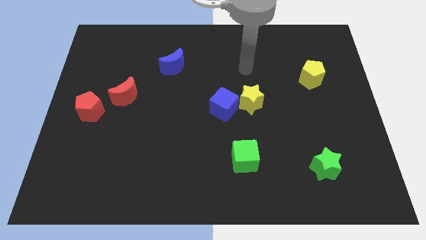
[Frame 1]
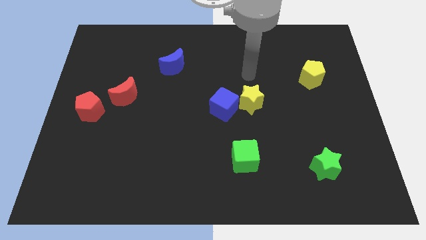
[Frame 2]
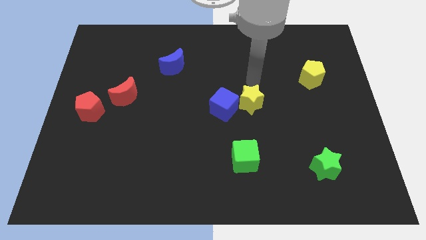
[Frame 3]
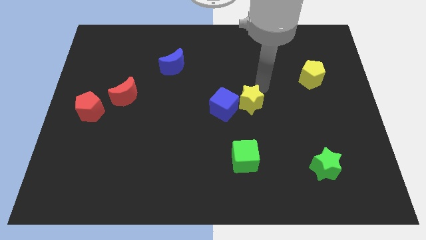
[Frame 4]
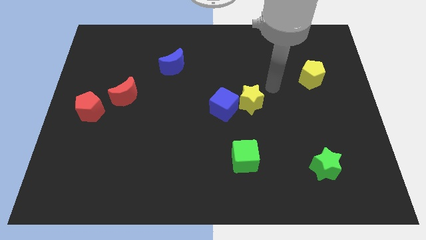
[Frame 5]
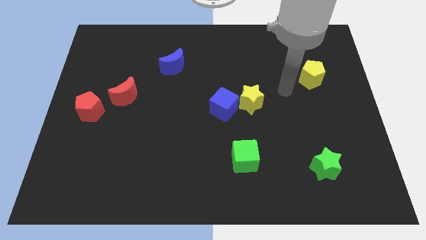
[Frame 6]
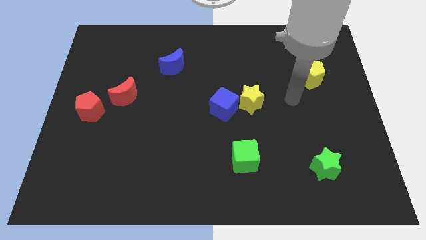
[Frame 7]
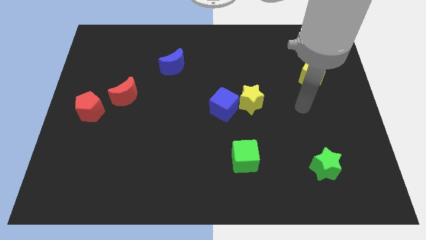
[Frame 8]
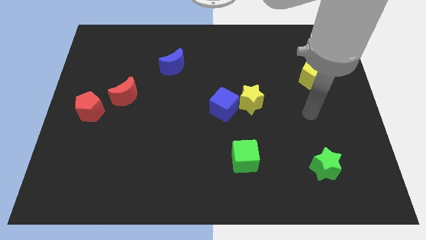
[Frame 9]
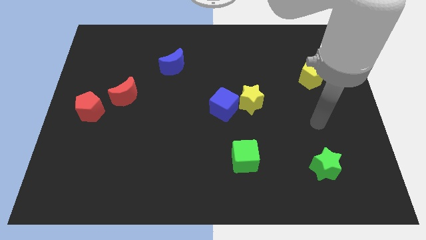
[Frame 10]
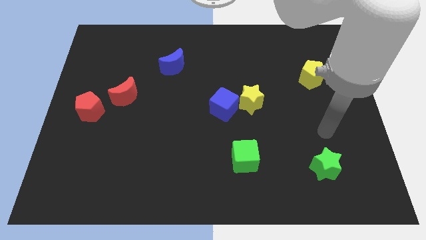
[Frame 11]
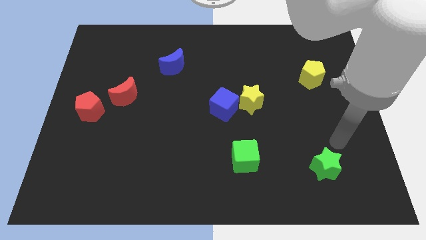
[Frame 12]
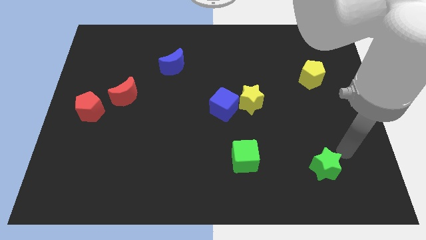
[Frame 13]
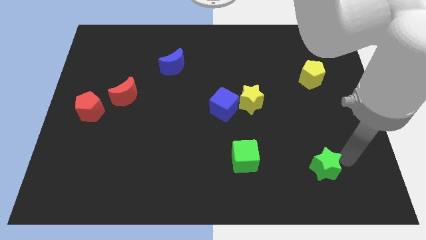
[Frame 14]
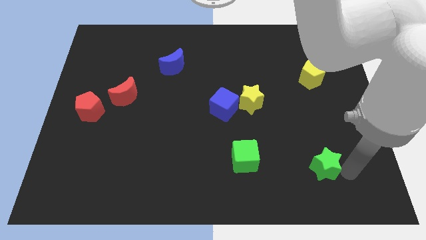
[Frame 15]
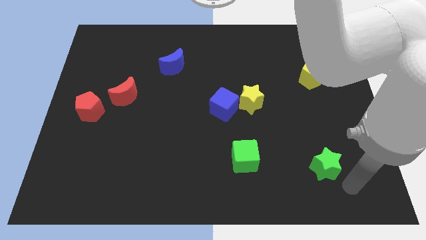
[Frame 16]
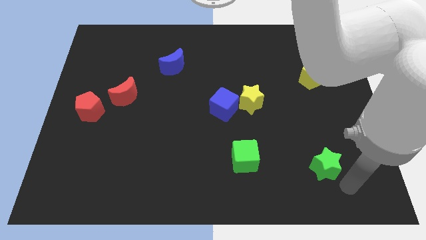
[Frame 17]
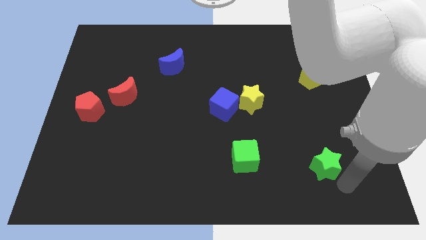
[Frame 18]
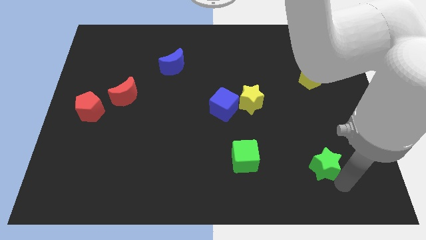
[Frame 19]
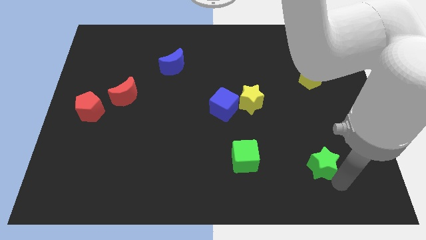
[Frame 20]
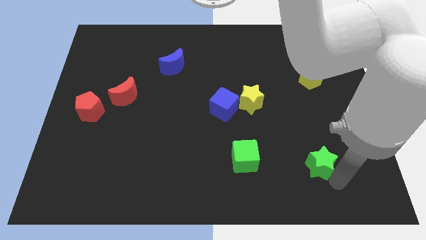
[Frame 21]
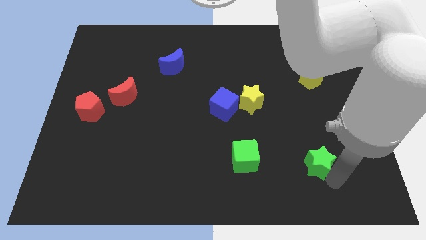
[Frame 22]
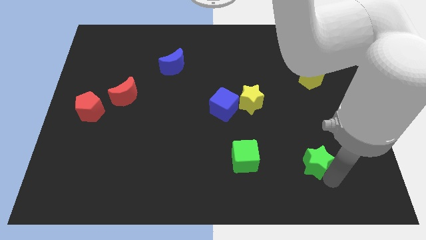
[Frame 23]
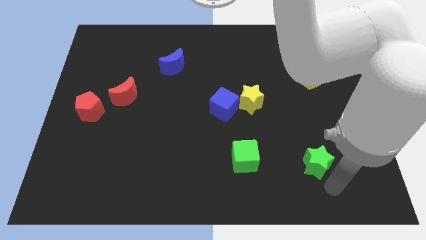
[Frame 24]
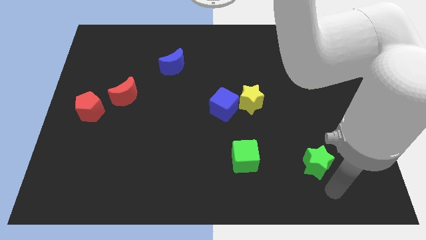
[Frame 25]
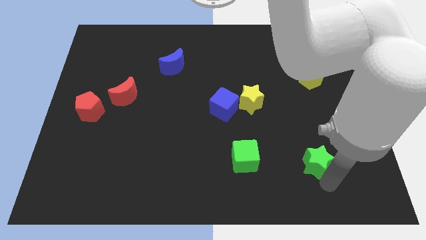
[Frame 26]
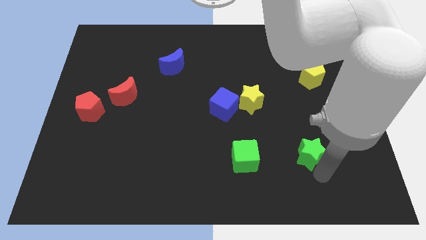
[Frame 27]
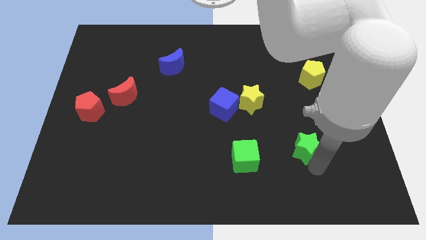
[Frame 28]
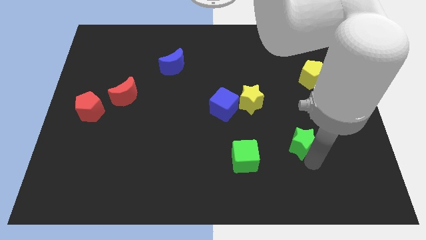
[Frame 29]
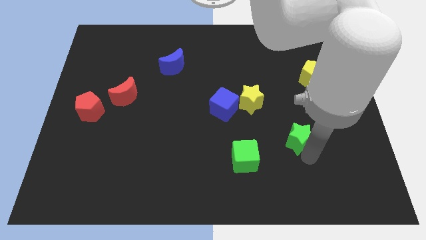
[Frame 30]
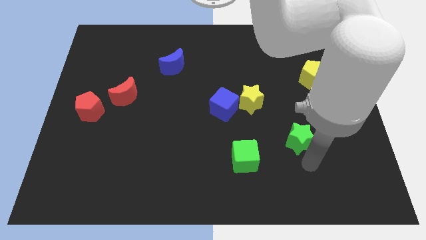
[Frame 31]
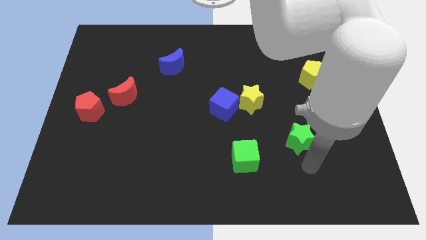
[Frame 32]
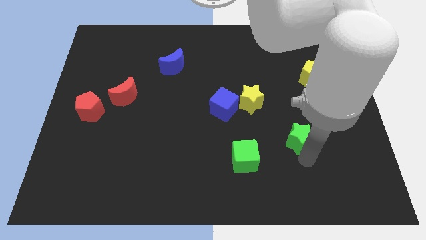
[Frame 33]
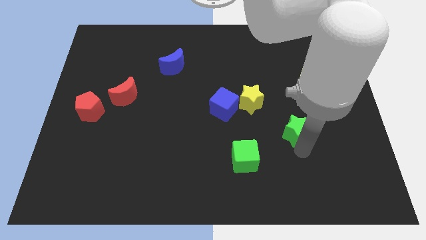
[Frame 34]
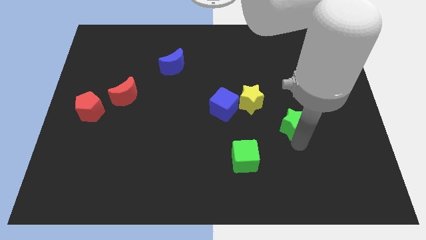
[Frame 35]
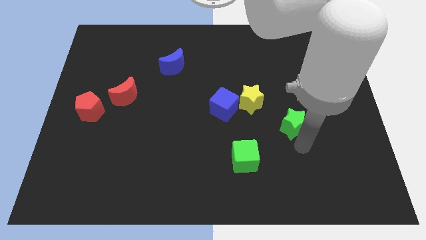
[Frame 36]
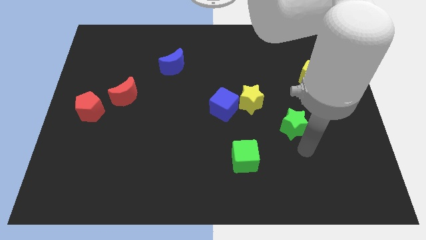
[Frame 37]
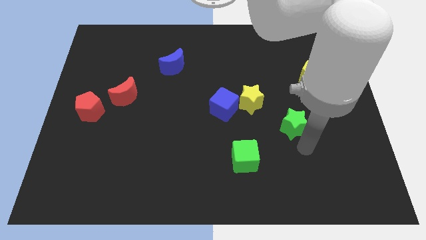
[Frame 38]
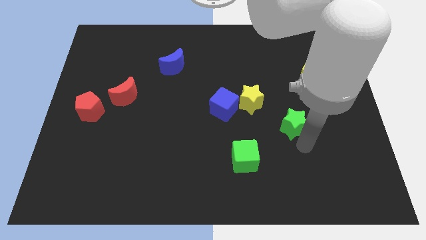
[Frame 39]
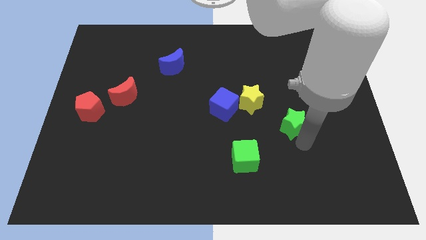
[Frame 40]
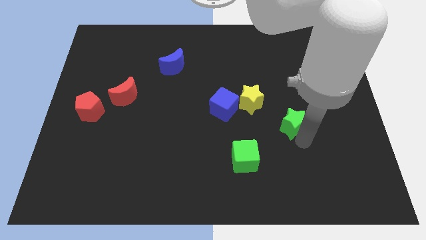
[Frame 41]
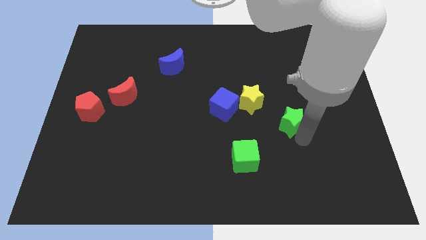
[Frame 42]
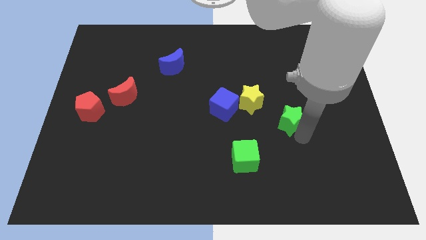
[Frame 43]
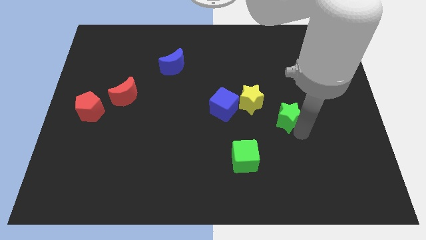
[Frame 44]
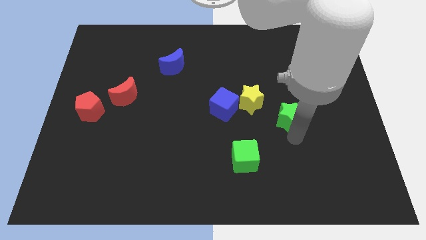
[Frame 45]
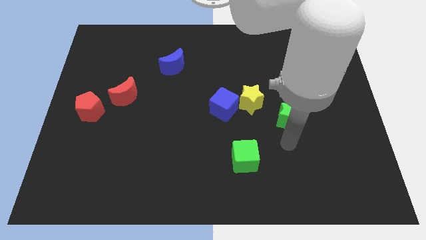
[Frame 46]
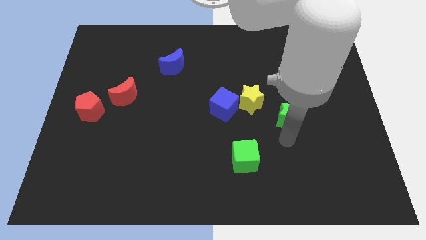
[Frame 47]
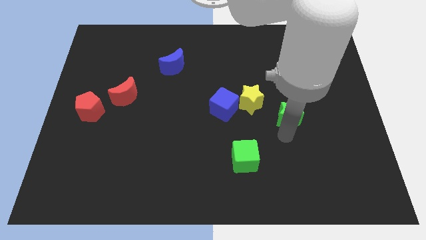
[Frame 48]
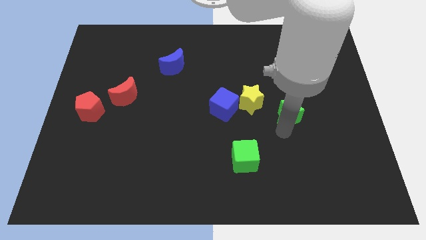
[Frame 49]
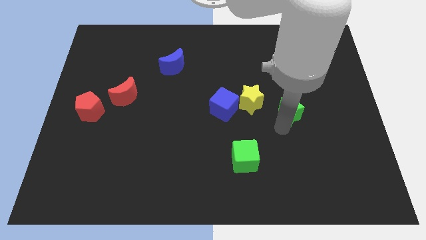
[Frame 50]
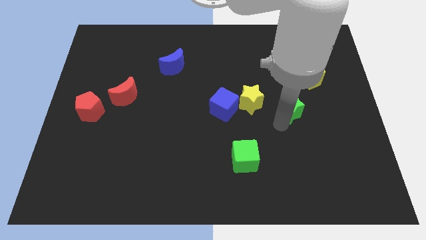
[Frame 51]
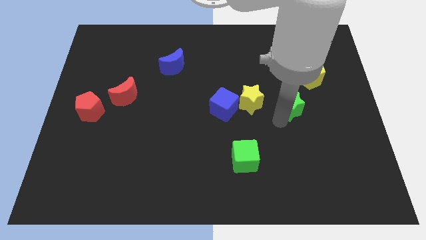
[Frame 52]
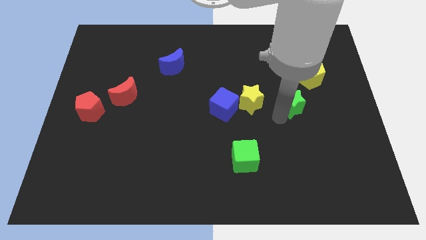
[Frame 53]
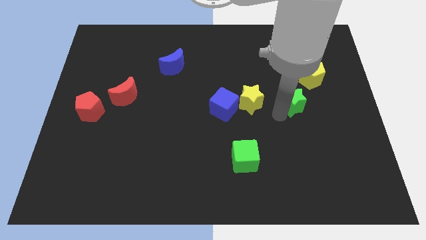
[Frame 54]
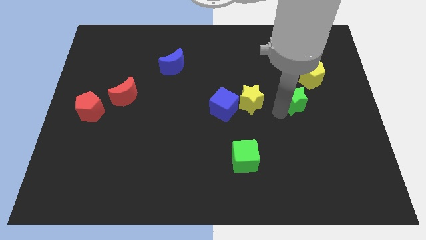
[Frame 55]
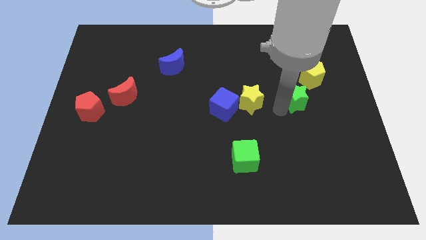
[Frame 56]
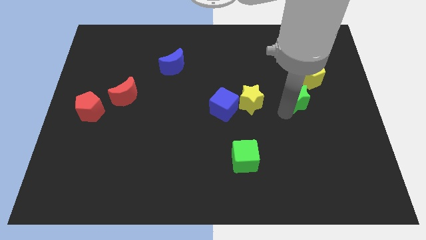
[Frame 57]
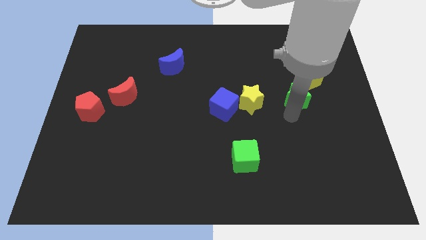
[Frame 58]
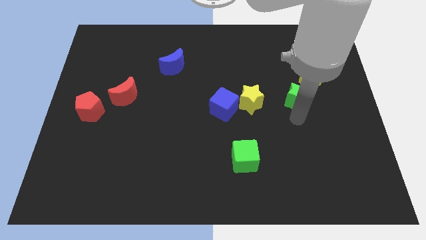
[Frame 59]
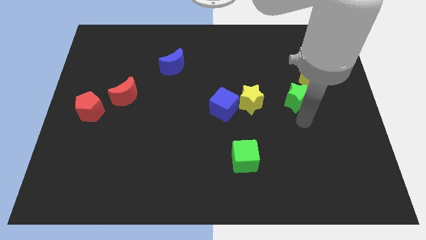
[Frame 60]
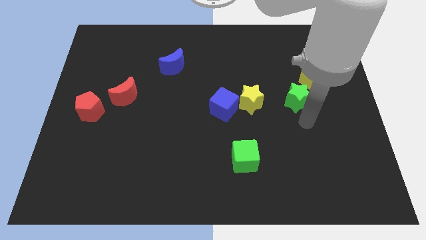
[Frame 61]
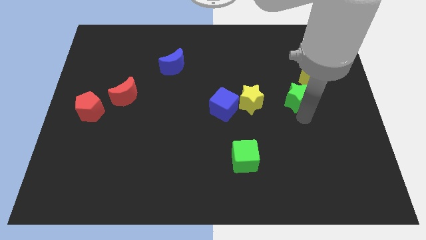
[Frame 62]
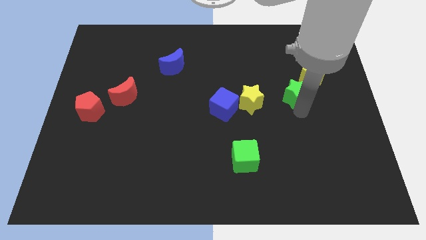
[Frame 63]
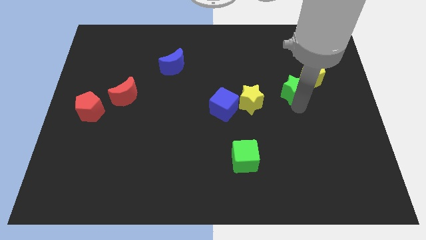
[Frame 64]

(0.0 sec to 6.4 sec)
push the green star up

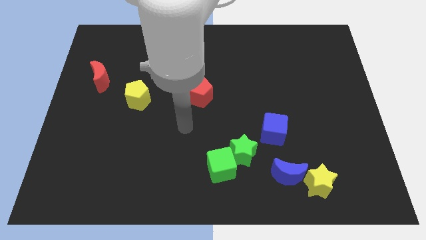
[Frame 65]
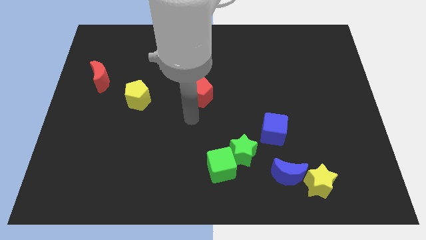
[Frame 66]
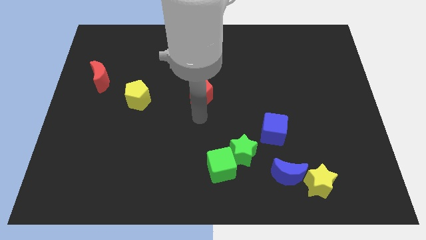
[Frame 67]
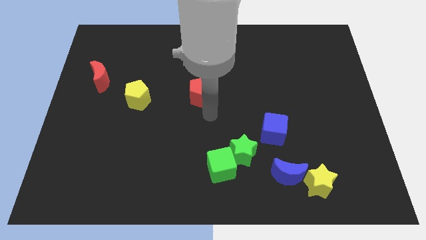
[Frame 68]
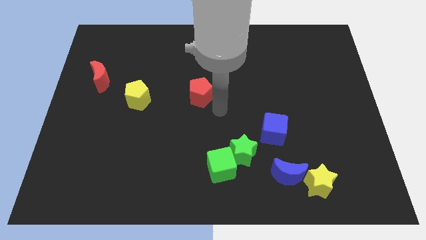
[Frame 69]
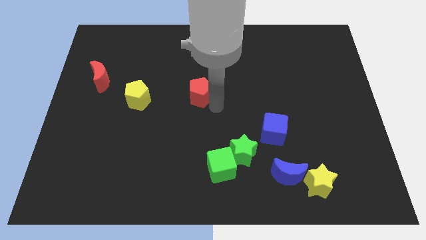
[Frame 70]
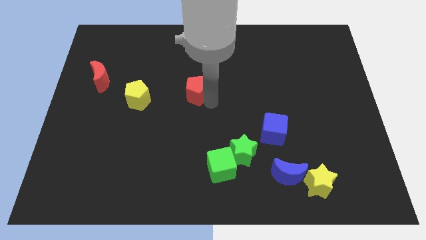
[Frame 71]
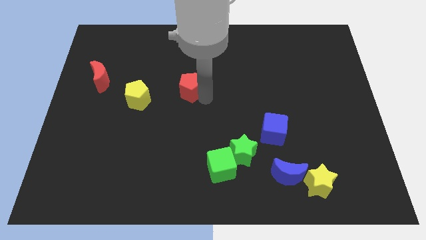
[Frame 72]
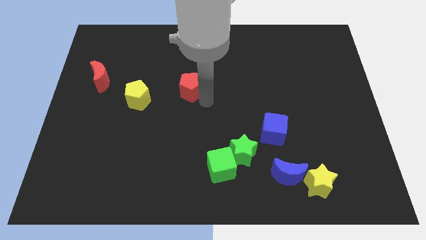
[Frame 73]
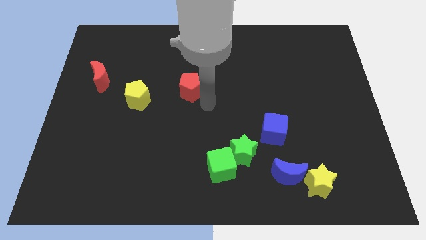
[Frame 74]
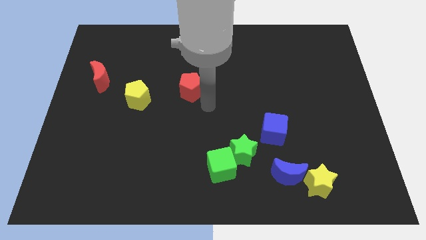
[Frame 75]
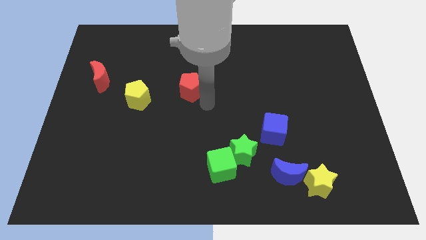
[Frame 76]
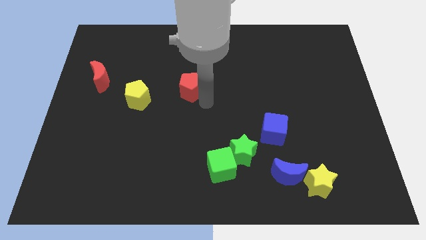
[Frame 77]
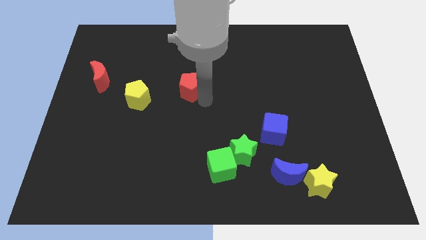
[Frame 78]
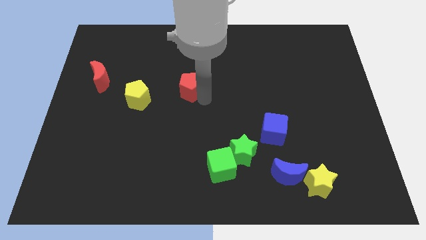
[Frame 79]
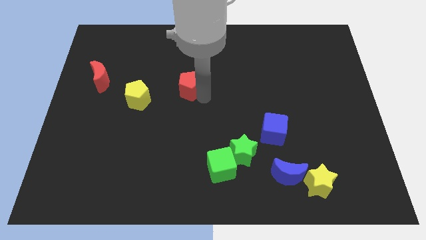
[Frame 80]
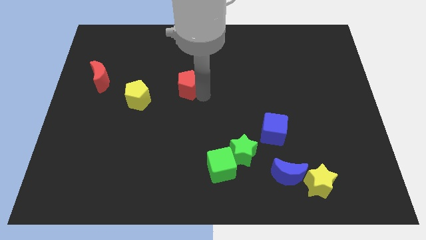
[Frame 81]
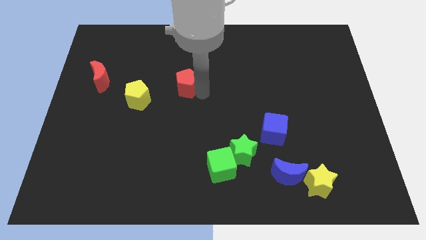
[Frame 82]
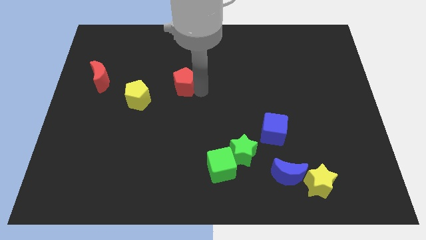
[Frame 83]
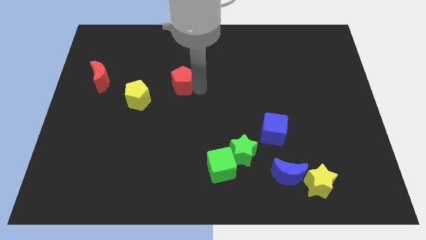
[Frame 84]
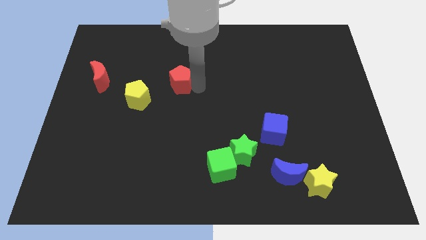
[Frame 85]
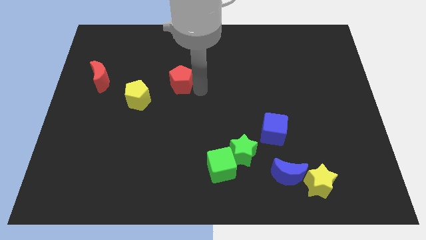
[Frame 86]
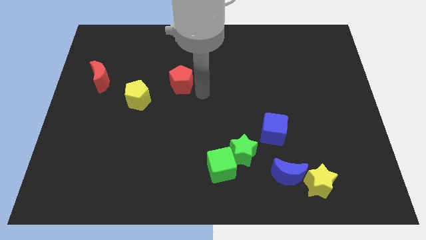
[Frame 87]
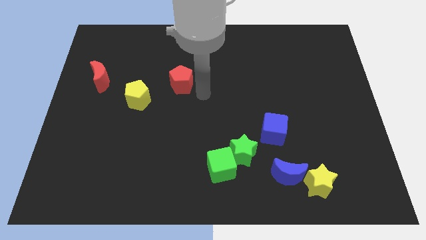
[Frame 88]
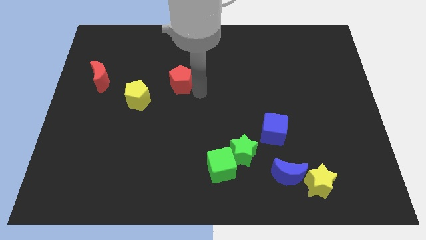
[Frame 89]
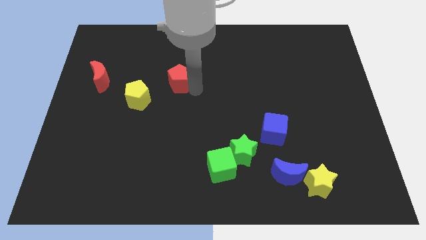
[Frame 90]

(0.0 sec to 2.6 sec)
slightly push the red pentagon upwards and then left
